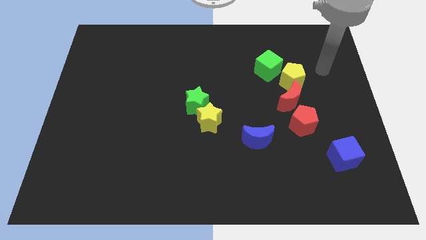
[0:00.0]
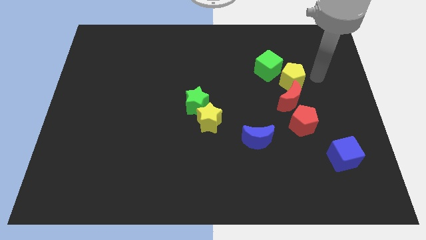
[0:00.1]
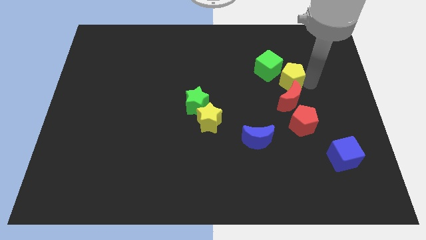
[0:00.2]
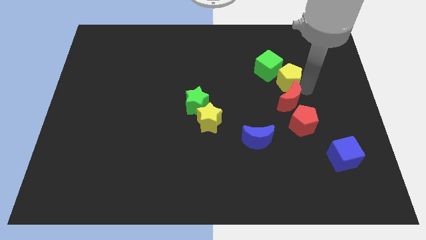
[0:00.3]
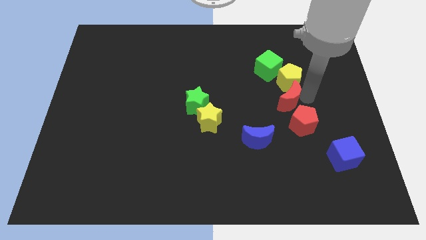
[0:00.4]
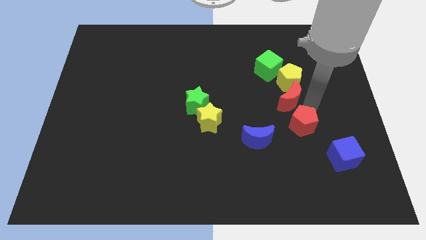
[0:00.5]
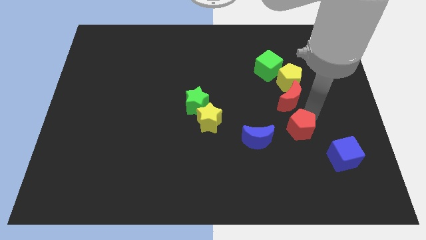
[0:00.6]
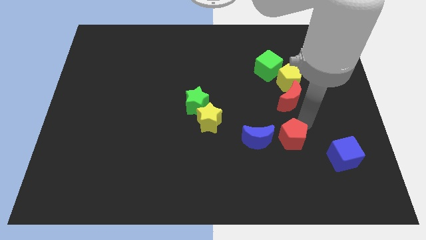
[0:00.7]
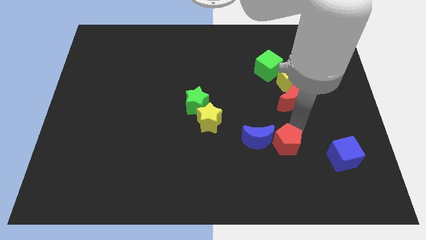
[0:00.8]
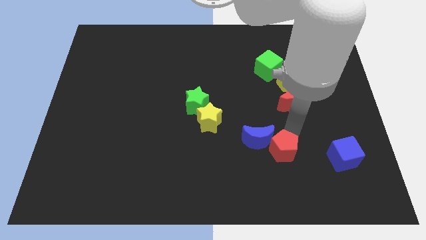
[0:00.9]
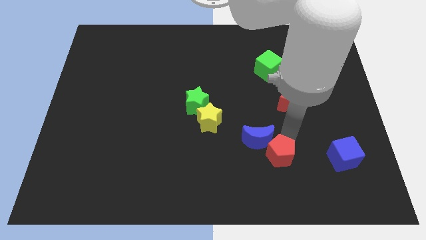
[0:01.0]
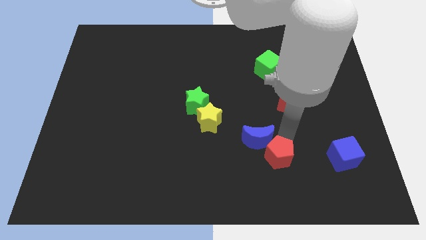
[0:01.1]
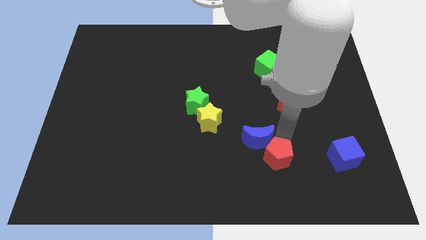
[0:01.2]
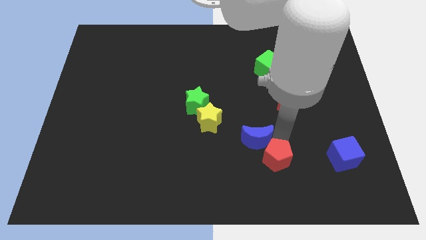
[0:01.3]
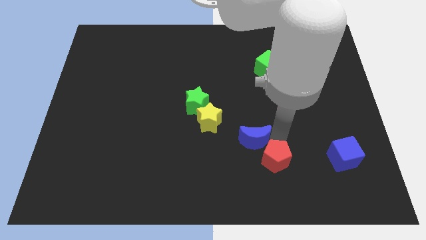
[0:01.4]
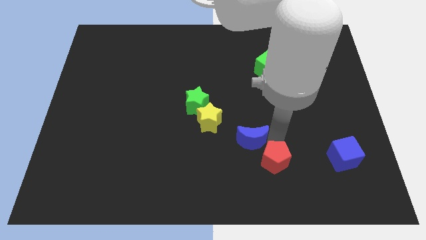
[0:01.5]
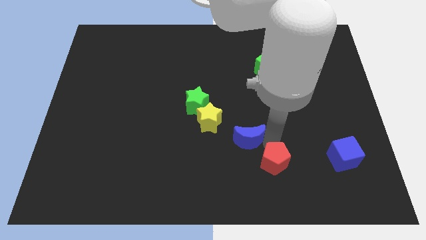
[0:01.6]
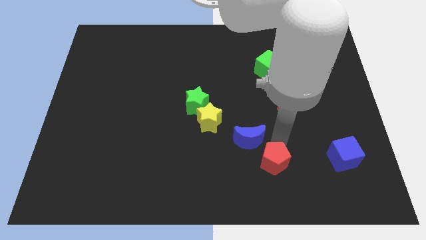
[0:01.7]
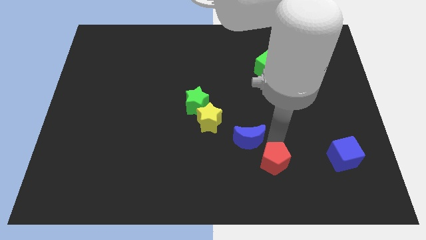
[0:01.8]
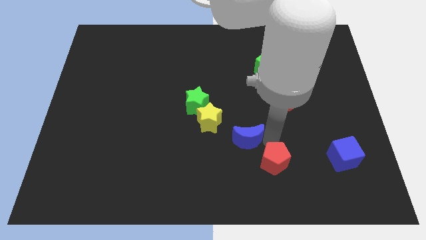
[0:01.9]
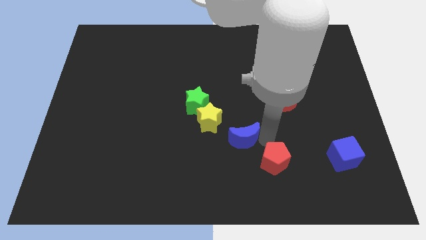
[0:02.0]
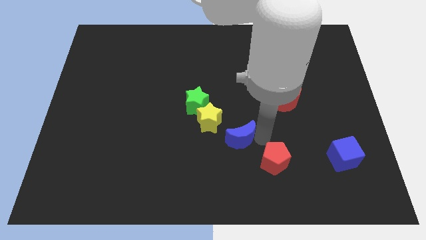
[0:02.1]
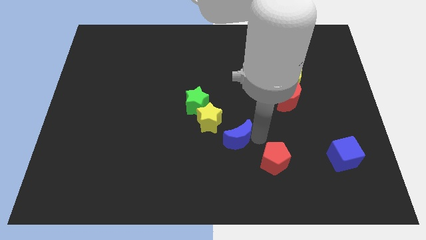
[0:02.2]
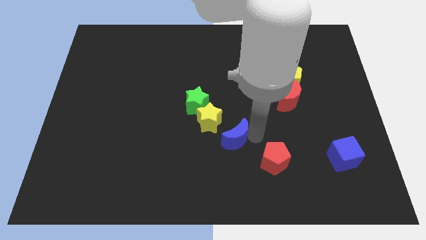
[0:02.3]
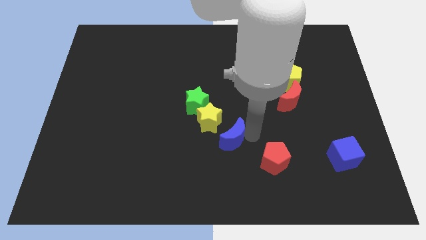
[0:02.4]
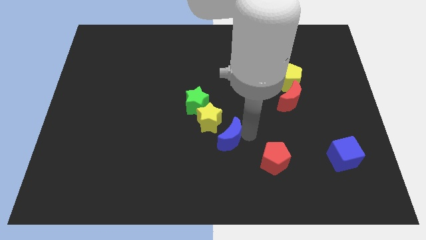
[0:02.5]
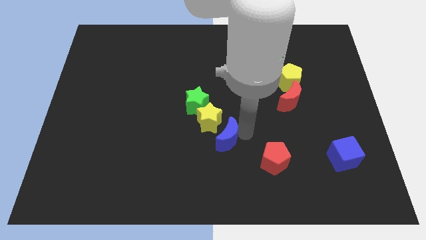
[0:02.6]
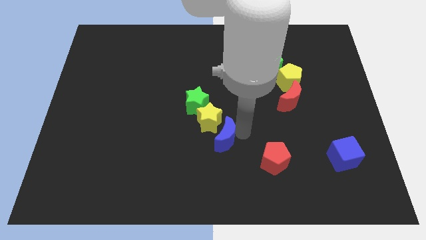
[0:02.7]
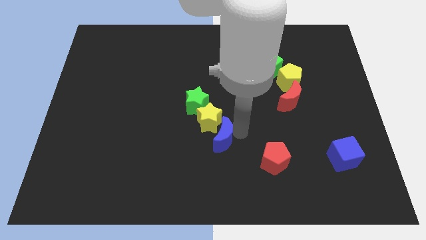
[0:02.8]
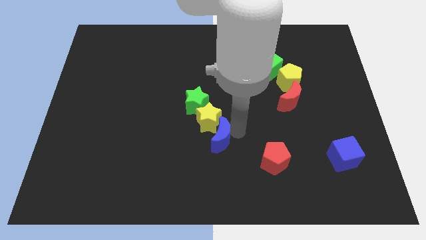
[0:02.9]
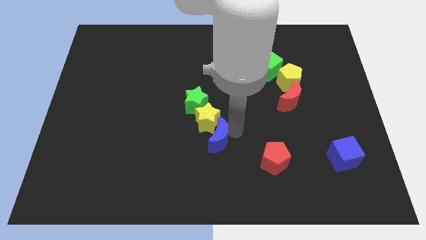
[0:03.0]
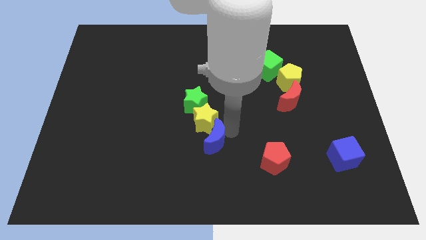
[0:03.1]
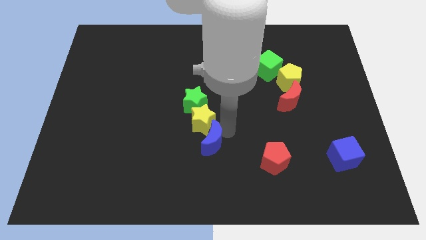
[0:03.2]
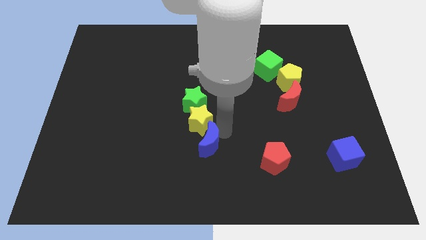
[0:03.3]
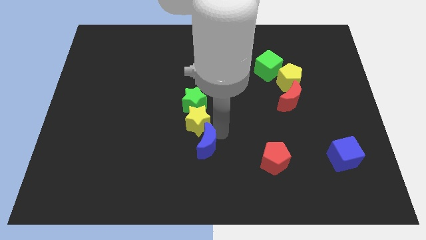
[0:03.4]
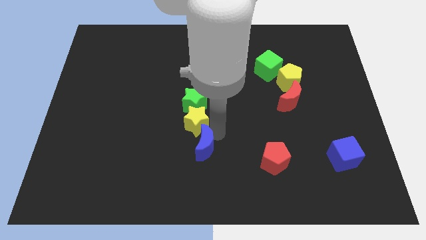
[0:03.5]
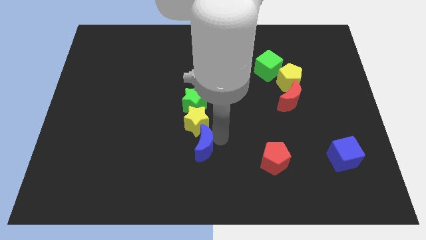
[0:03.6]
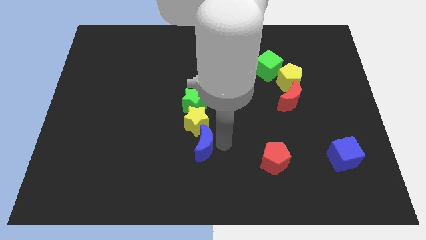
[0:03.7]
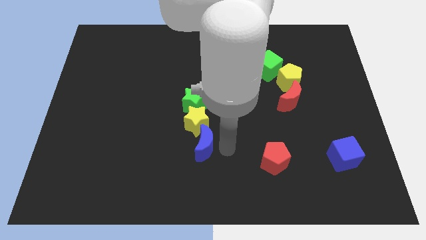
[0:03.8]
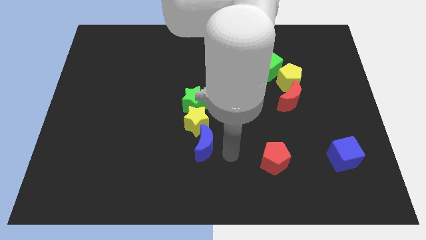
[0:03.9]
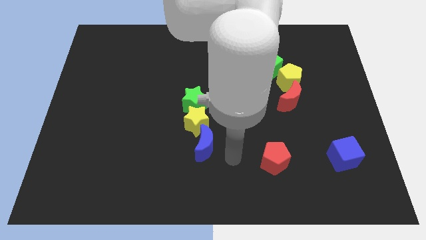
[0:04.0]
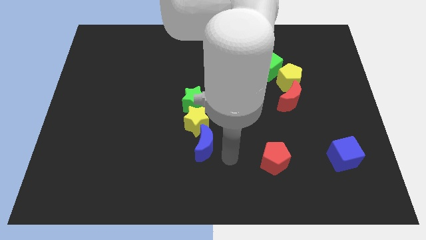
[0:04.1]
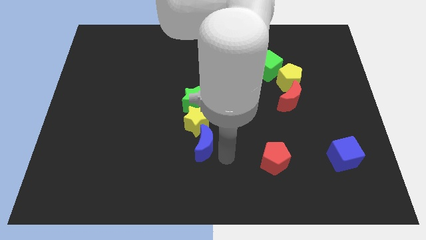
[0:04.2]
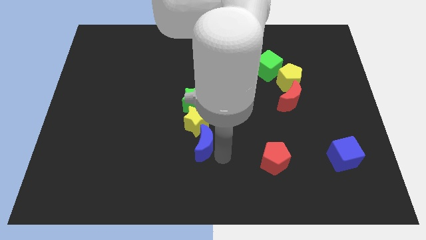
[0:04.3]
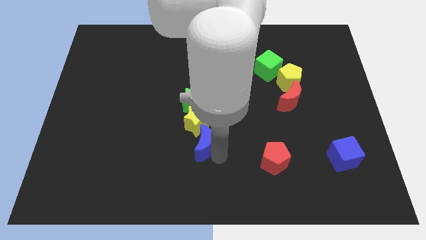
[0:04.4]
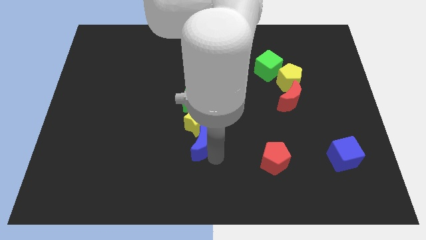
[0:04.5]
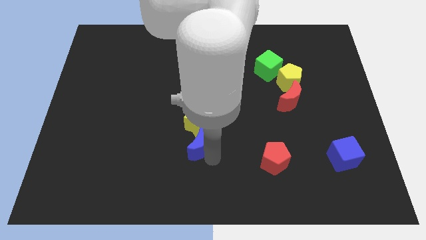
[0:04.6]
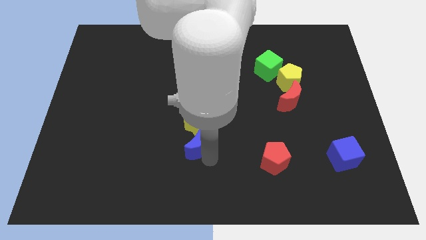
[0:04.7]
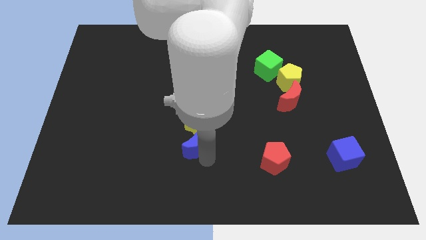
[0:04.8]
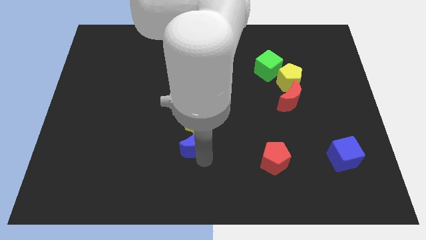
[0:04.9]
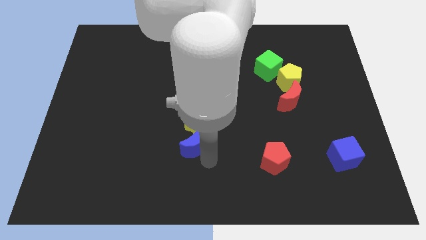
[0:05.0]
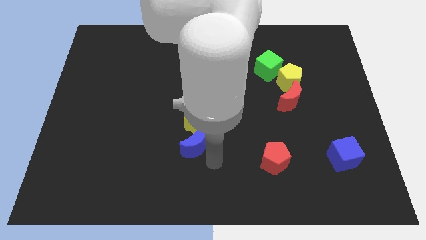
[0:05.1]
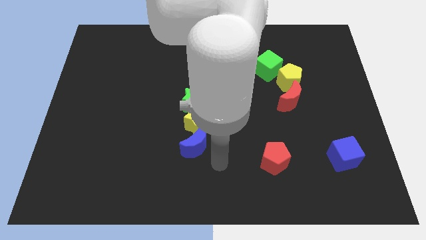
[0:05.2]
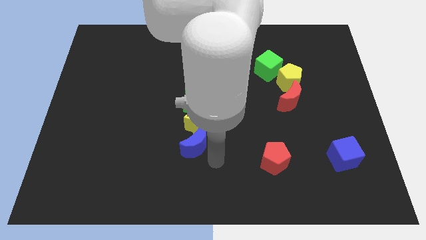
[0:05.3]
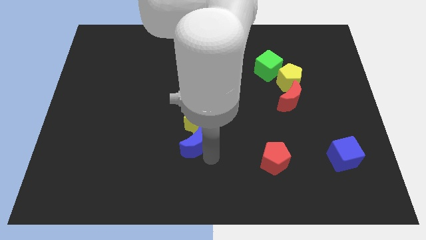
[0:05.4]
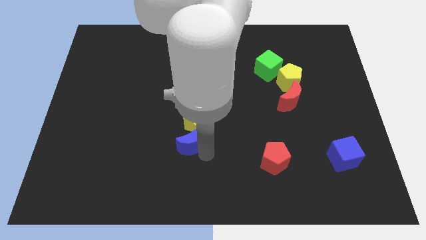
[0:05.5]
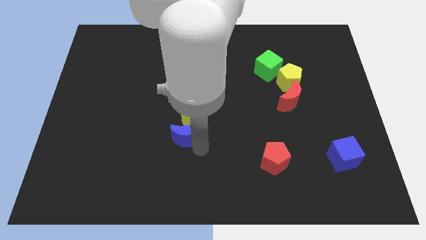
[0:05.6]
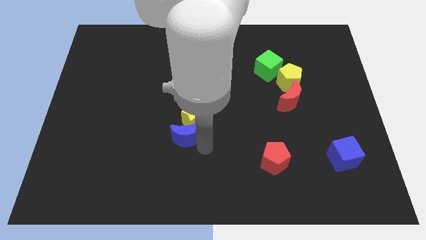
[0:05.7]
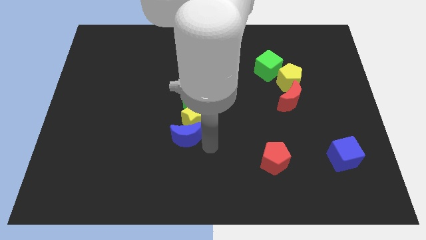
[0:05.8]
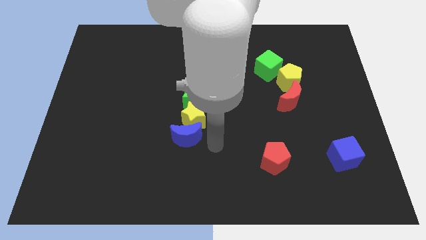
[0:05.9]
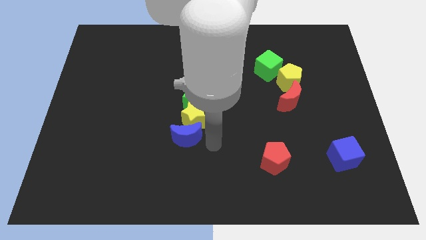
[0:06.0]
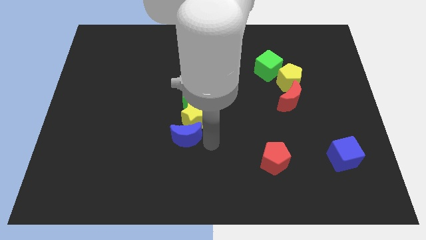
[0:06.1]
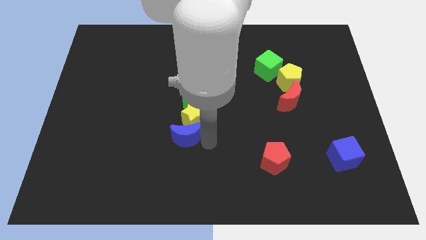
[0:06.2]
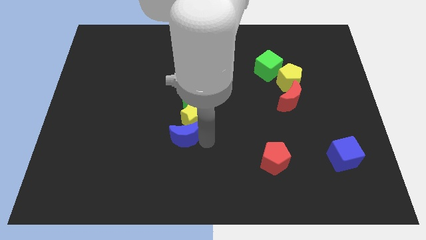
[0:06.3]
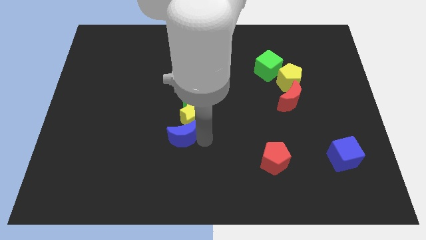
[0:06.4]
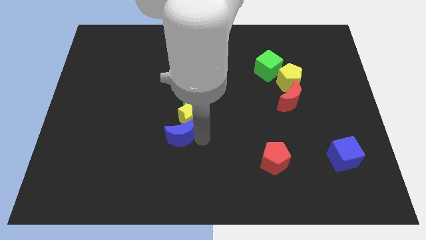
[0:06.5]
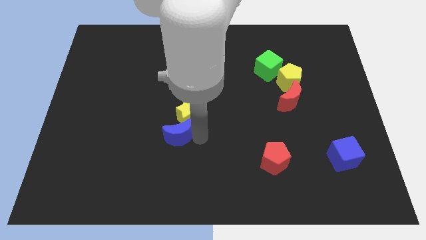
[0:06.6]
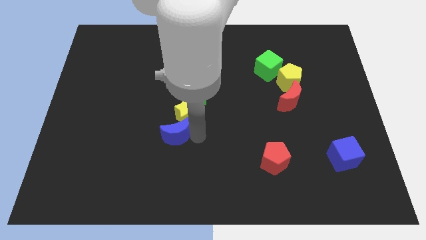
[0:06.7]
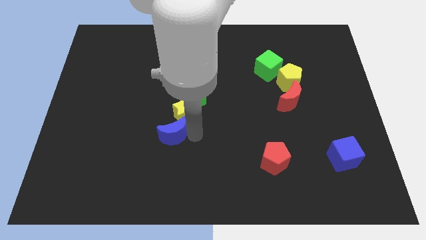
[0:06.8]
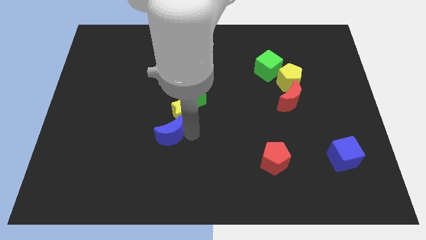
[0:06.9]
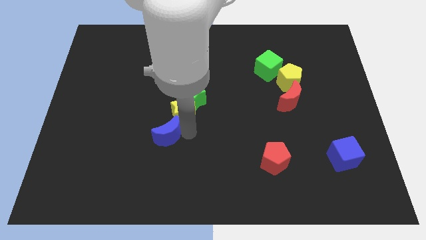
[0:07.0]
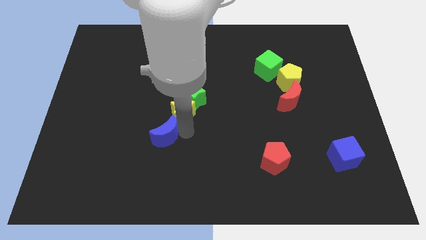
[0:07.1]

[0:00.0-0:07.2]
slide the blue moon to the left

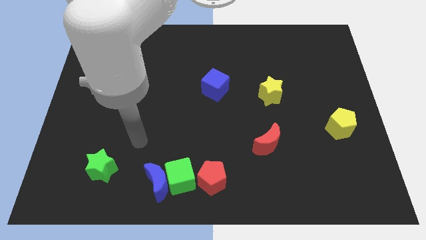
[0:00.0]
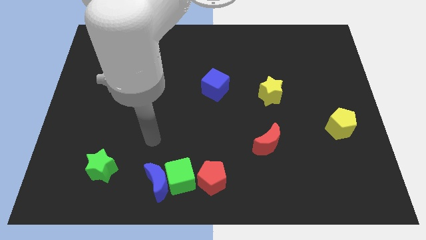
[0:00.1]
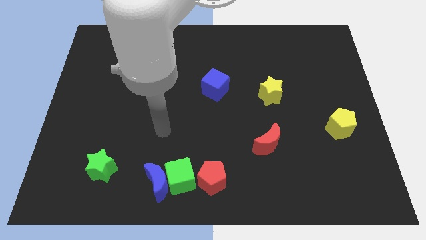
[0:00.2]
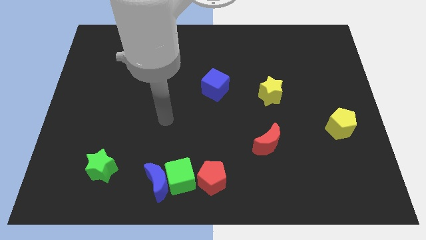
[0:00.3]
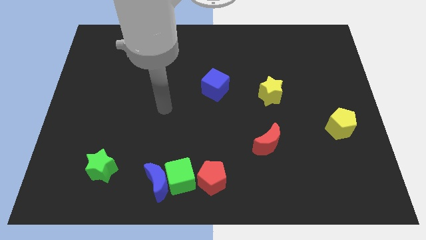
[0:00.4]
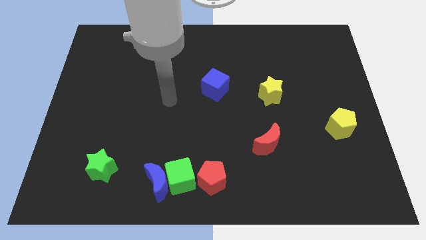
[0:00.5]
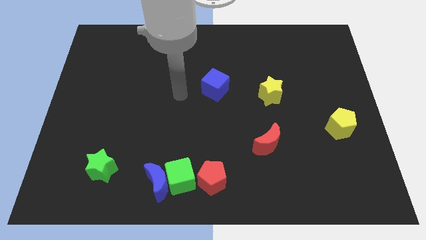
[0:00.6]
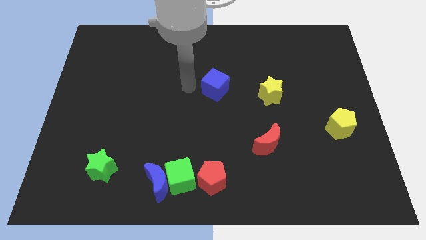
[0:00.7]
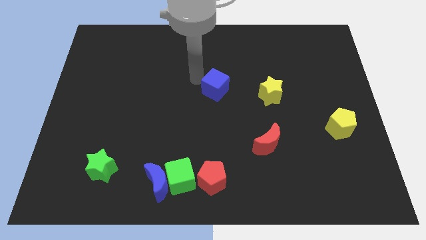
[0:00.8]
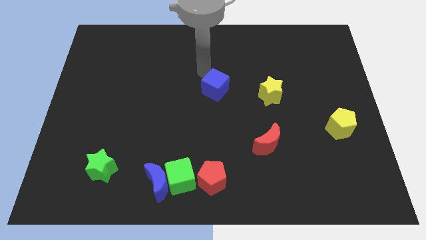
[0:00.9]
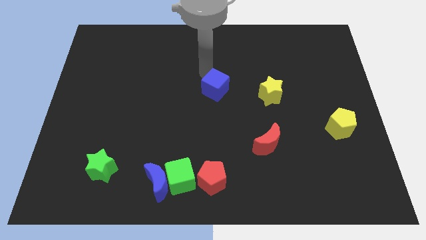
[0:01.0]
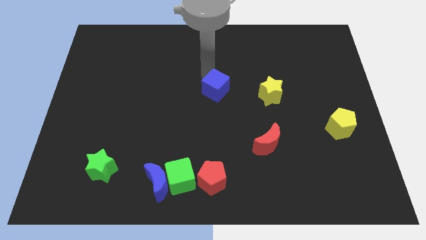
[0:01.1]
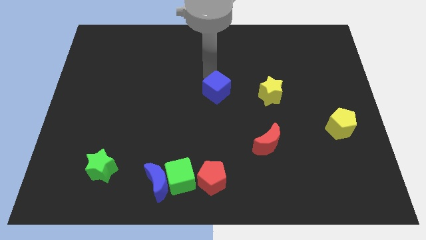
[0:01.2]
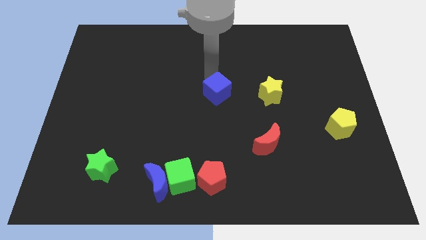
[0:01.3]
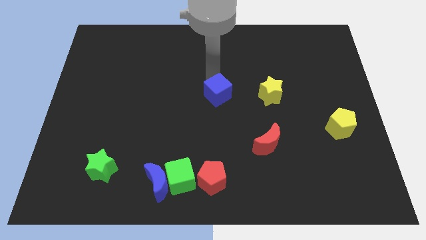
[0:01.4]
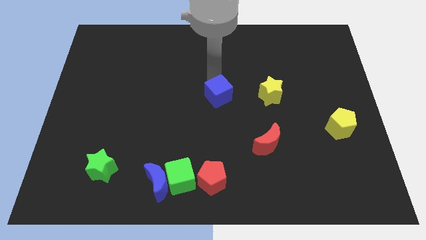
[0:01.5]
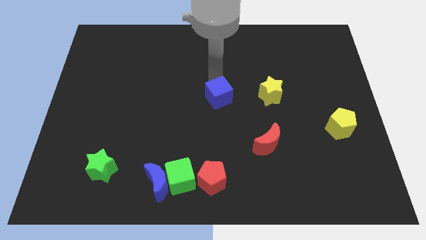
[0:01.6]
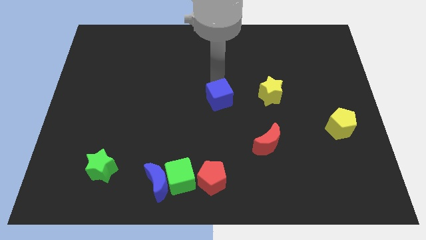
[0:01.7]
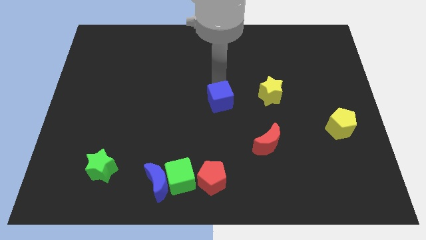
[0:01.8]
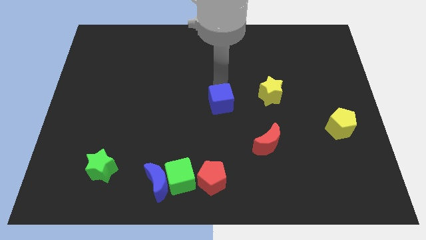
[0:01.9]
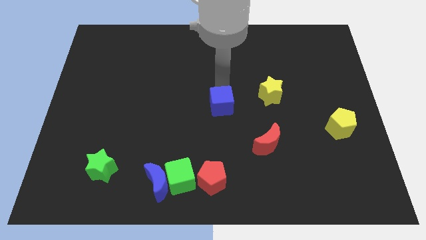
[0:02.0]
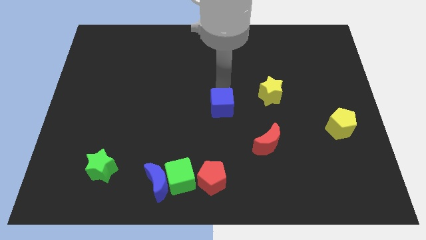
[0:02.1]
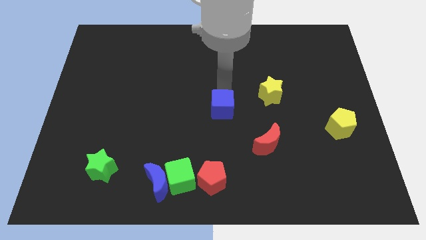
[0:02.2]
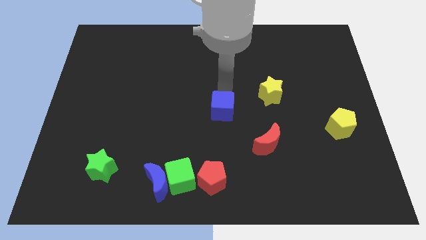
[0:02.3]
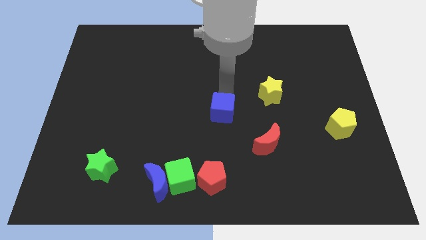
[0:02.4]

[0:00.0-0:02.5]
slide the blue cube somewhat downwards
